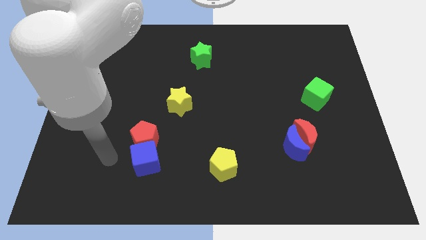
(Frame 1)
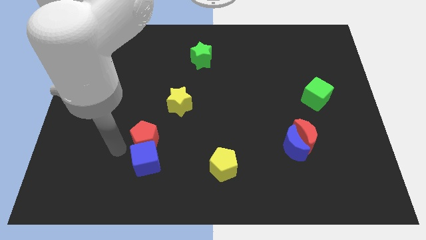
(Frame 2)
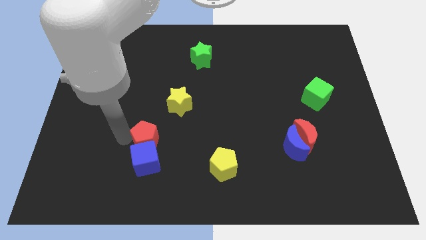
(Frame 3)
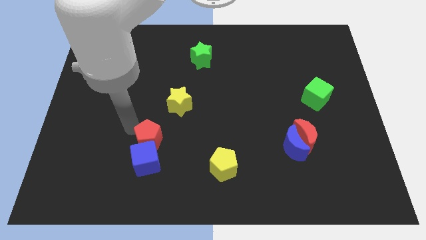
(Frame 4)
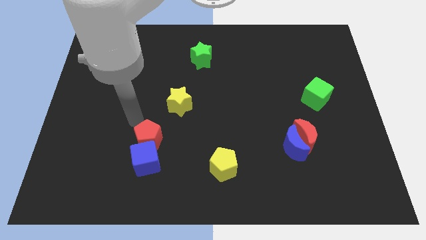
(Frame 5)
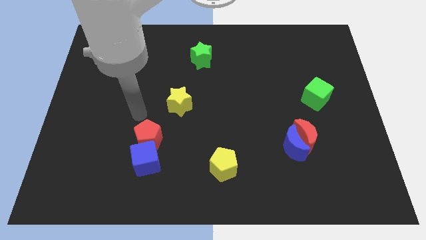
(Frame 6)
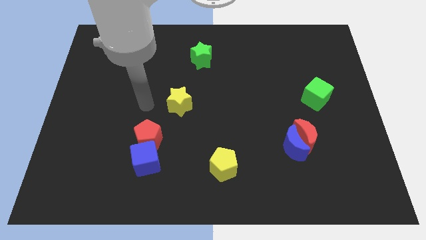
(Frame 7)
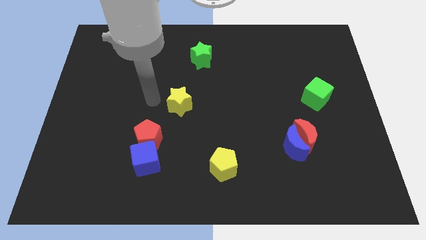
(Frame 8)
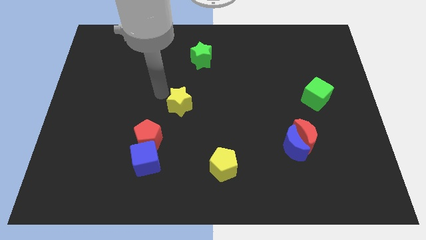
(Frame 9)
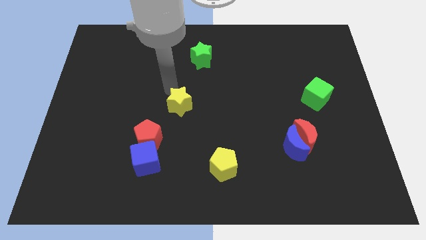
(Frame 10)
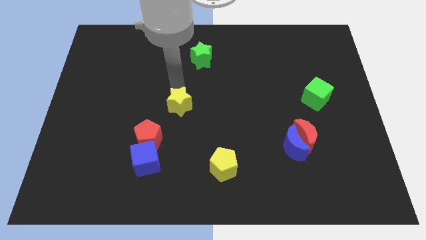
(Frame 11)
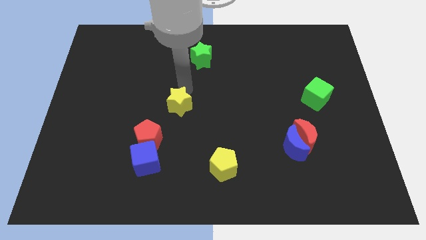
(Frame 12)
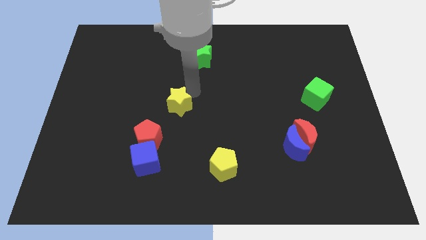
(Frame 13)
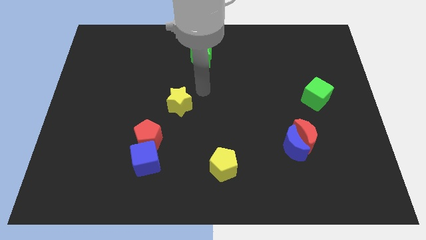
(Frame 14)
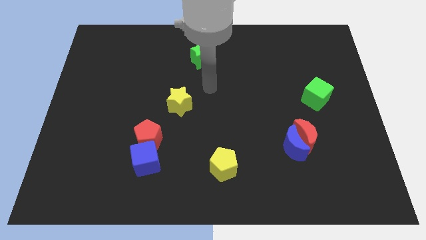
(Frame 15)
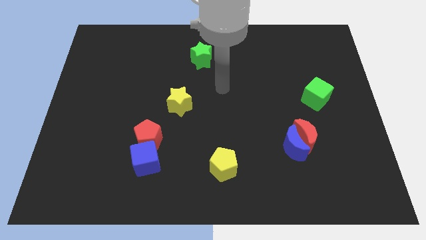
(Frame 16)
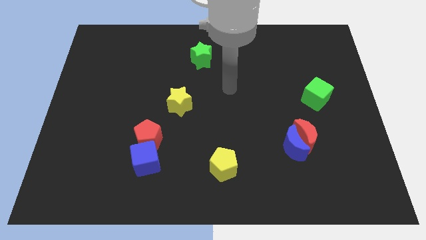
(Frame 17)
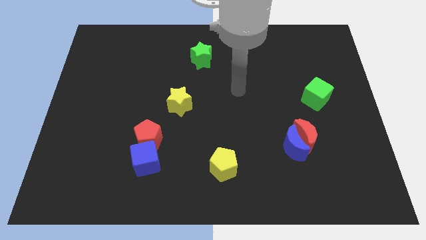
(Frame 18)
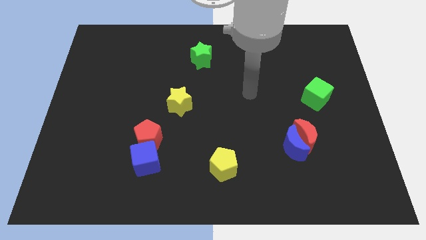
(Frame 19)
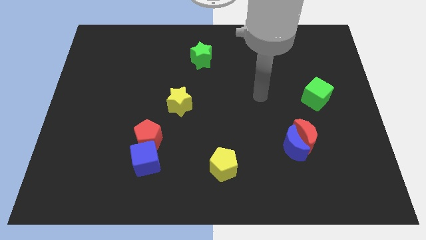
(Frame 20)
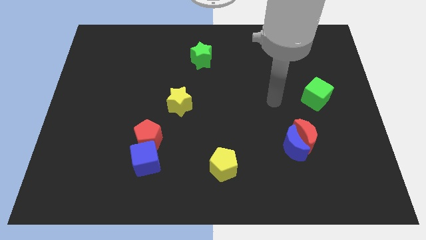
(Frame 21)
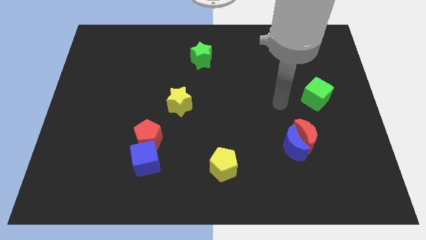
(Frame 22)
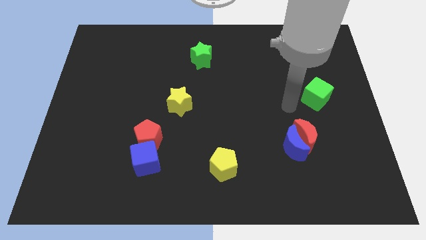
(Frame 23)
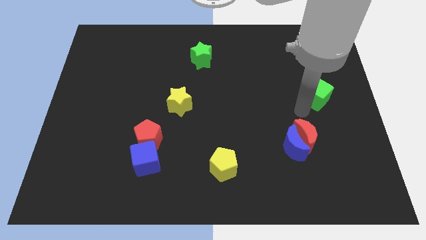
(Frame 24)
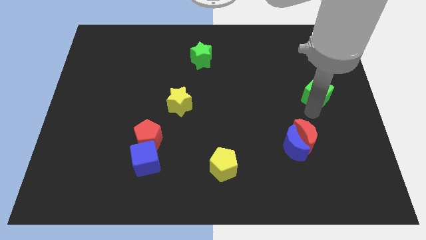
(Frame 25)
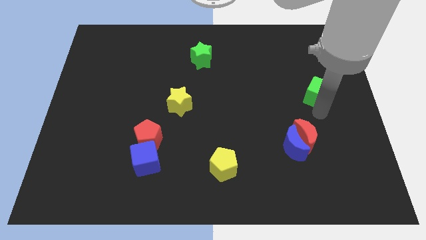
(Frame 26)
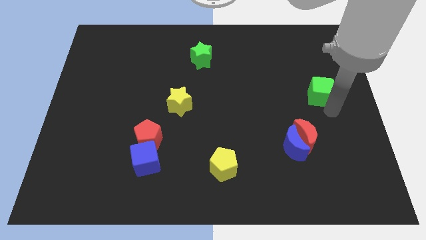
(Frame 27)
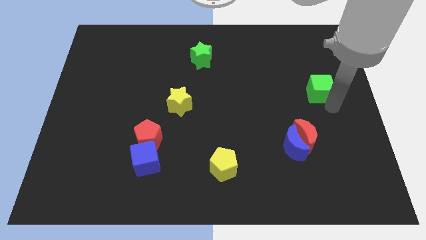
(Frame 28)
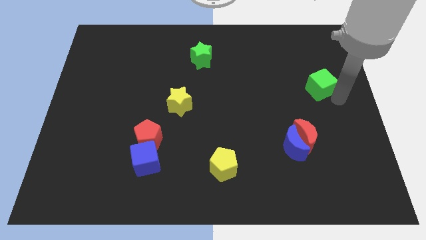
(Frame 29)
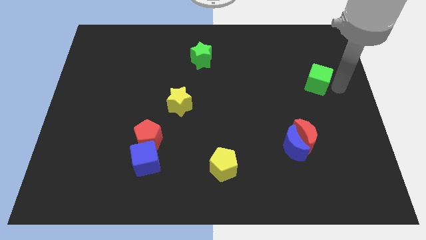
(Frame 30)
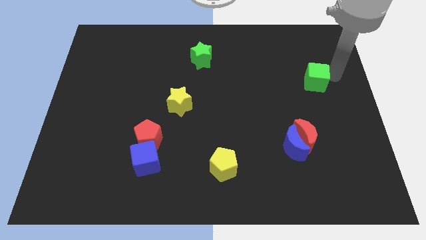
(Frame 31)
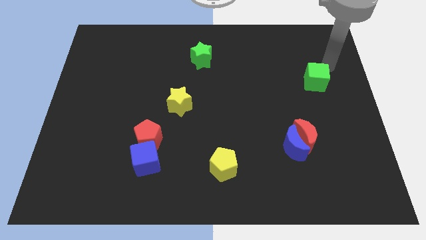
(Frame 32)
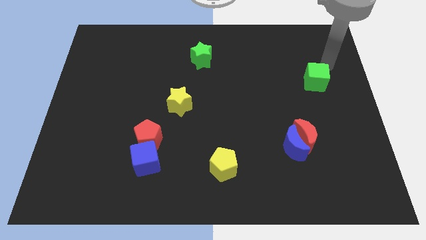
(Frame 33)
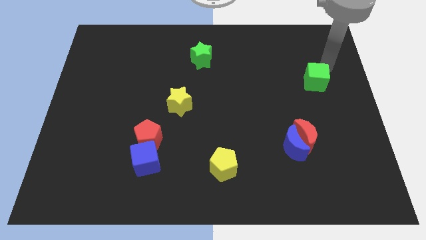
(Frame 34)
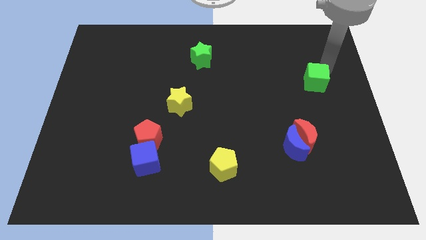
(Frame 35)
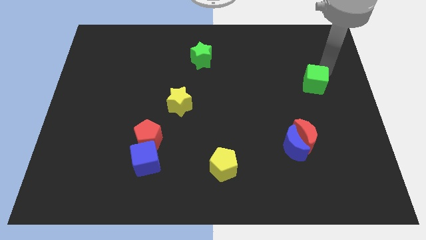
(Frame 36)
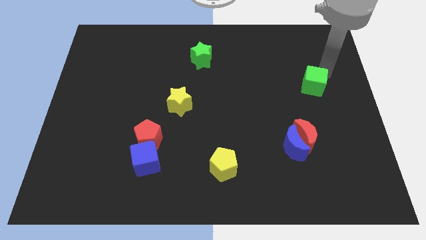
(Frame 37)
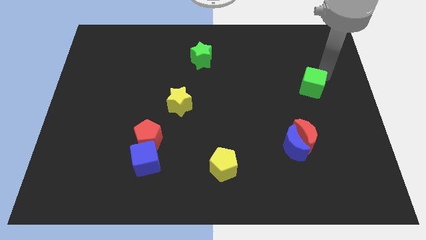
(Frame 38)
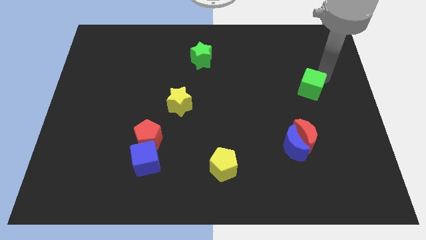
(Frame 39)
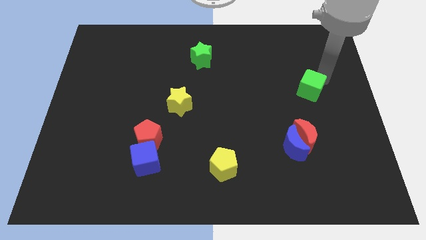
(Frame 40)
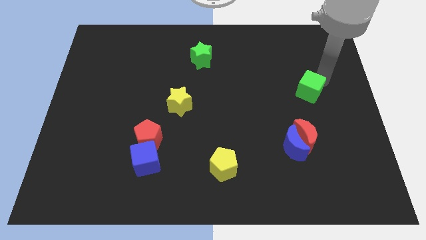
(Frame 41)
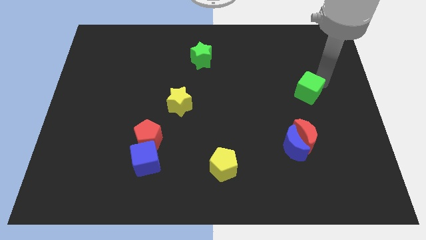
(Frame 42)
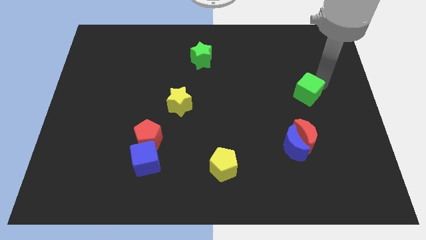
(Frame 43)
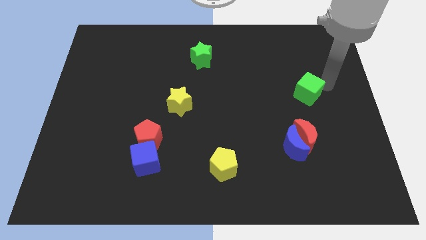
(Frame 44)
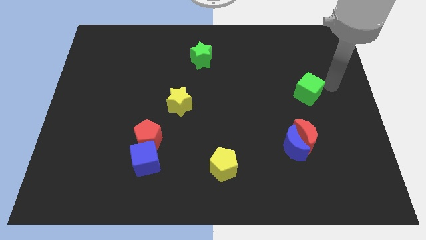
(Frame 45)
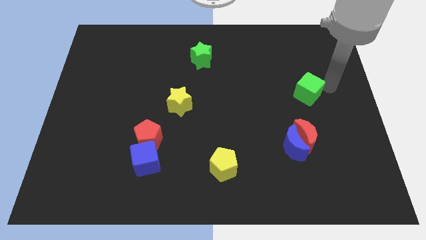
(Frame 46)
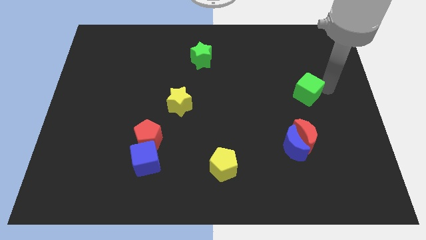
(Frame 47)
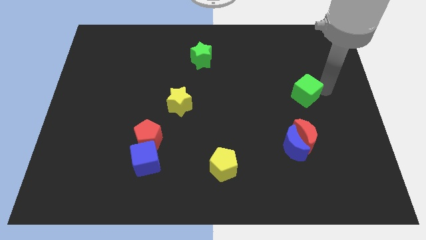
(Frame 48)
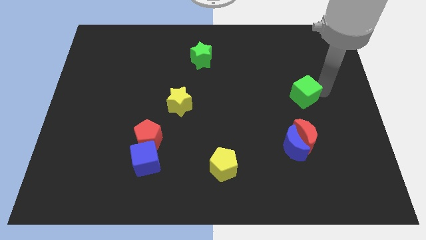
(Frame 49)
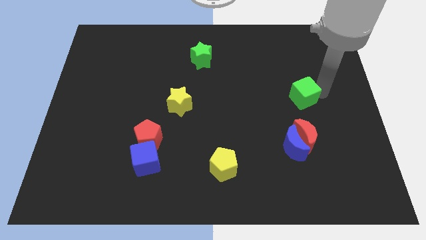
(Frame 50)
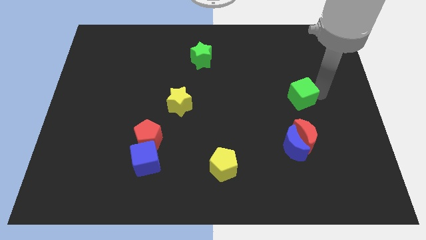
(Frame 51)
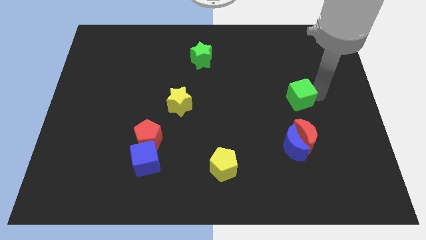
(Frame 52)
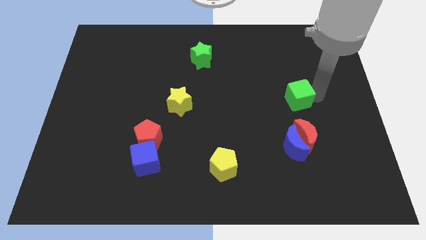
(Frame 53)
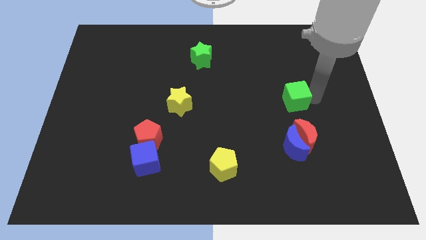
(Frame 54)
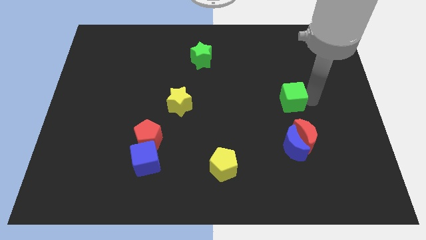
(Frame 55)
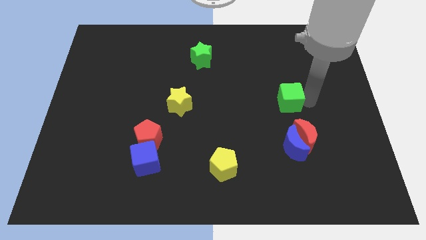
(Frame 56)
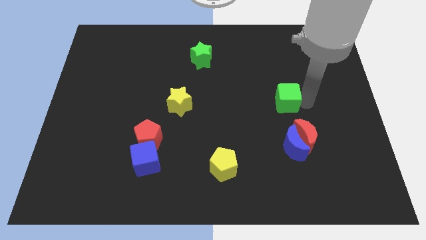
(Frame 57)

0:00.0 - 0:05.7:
slide the green cube to the left slightly

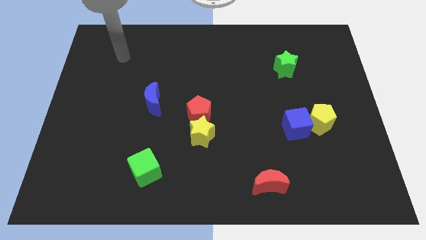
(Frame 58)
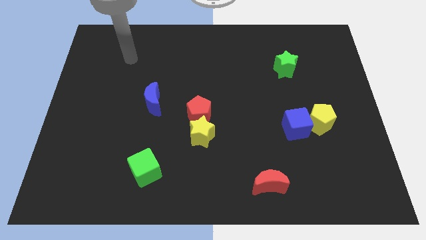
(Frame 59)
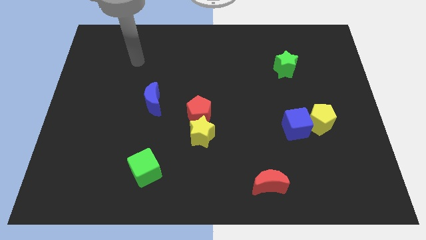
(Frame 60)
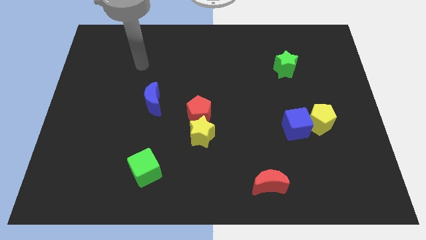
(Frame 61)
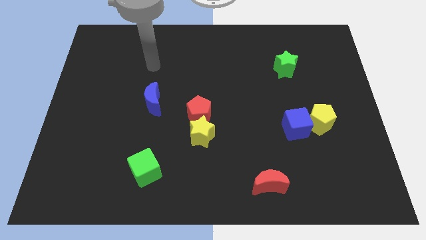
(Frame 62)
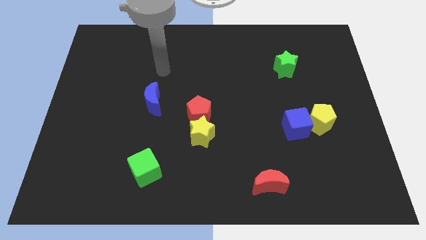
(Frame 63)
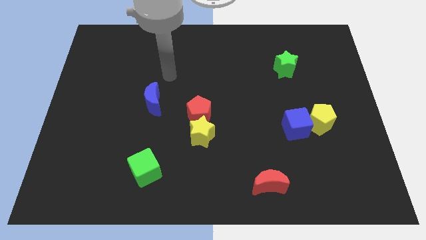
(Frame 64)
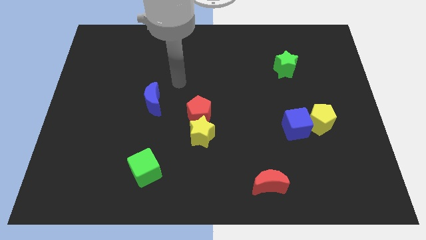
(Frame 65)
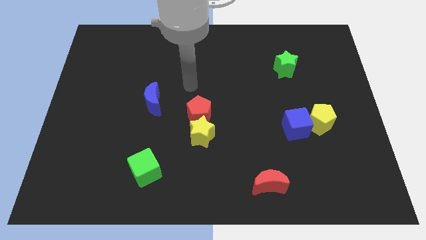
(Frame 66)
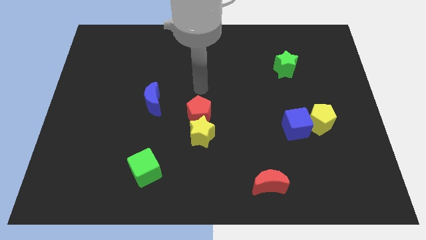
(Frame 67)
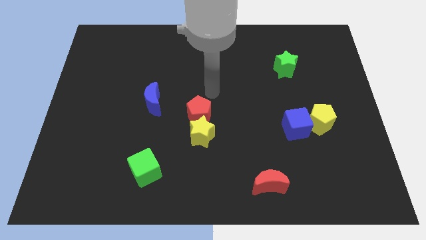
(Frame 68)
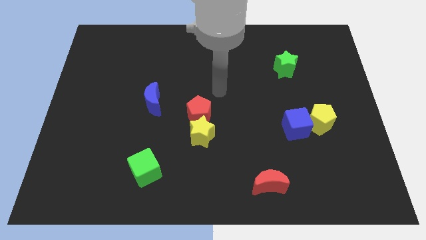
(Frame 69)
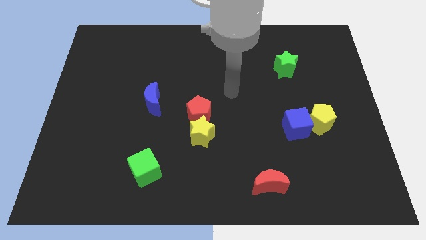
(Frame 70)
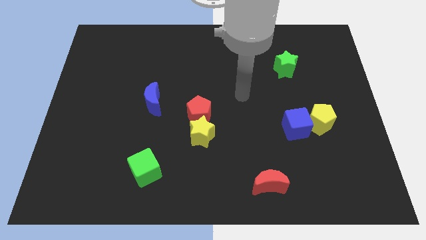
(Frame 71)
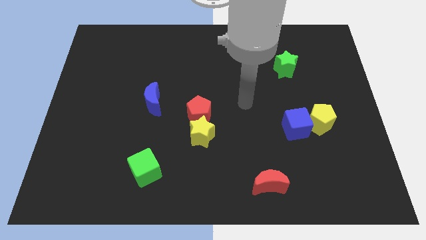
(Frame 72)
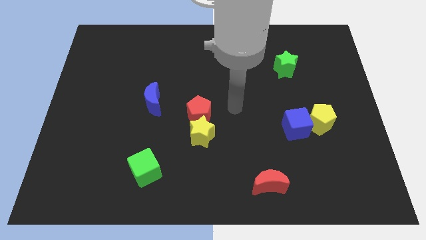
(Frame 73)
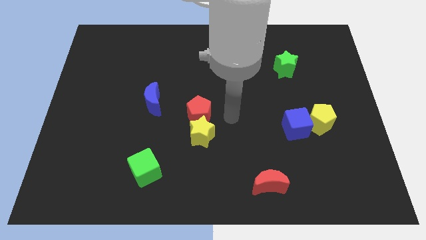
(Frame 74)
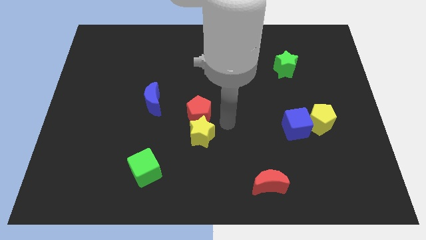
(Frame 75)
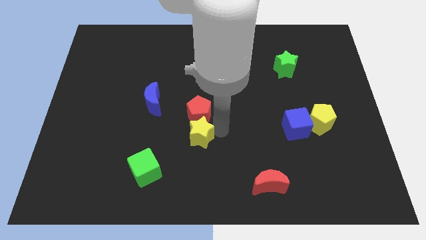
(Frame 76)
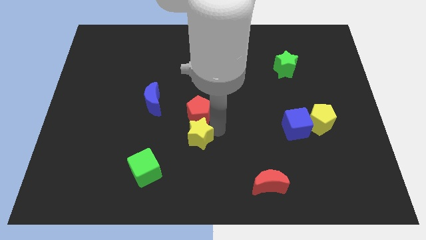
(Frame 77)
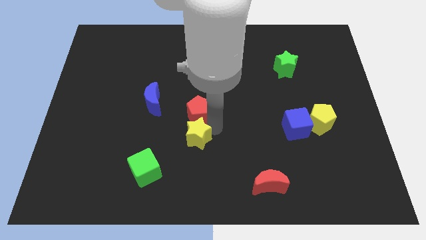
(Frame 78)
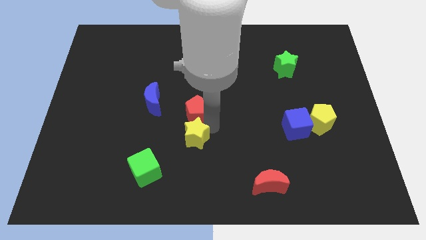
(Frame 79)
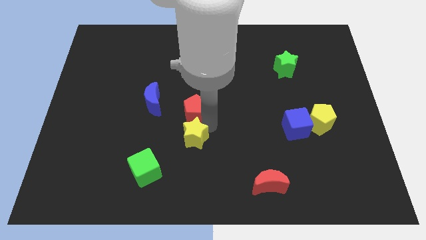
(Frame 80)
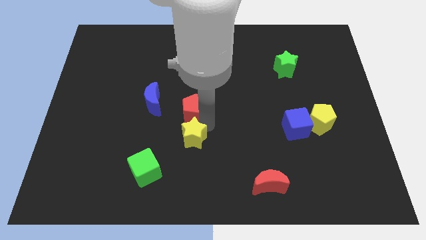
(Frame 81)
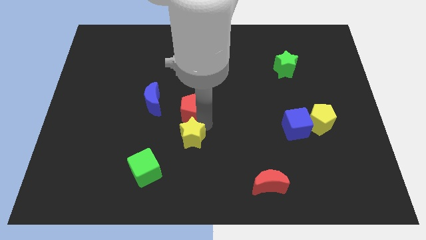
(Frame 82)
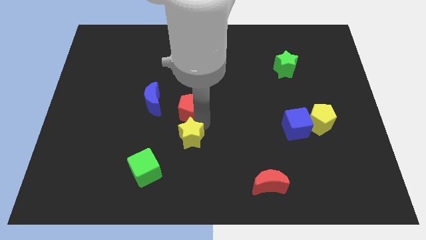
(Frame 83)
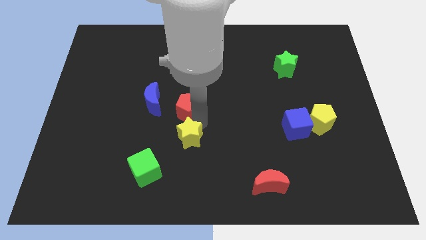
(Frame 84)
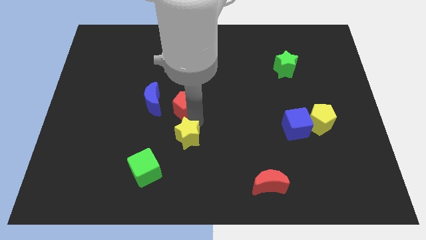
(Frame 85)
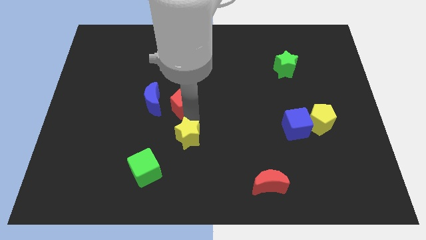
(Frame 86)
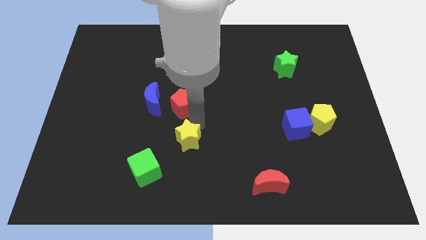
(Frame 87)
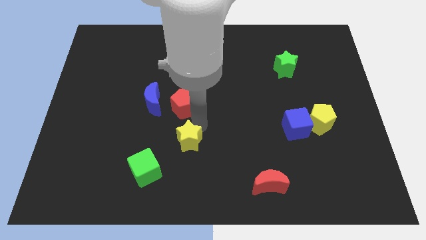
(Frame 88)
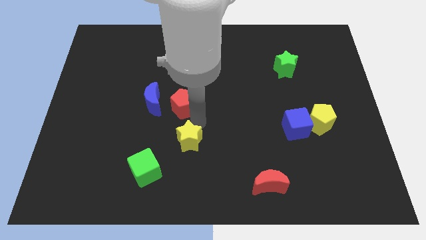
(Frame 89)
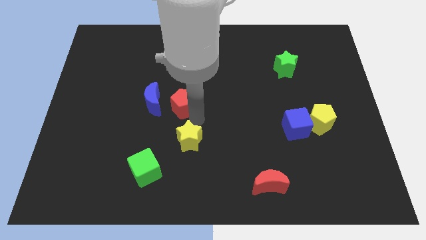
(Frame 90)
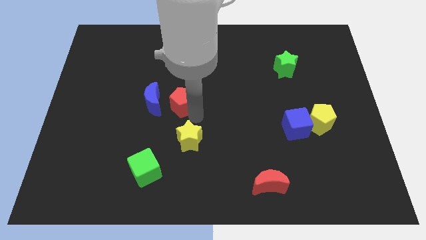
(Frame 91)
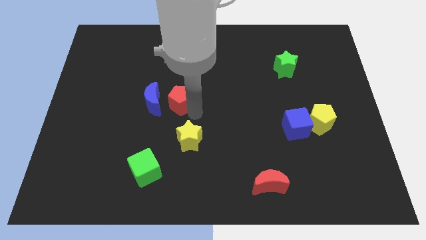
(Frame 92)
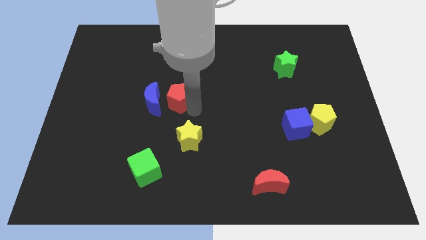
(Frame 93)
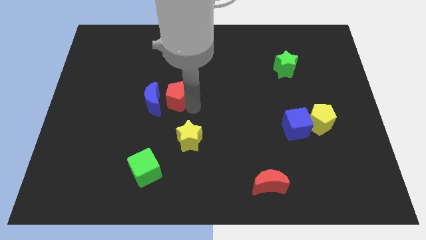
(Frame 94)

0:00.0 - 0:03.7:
slide the red pentagon slightly up and to the left
